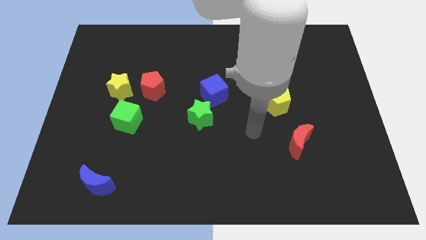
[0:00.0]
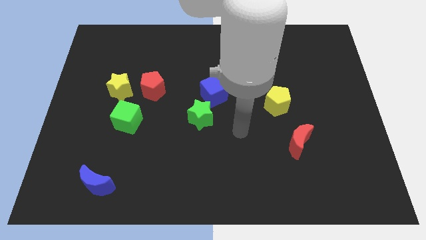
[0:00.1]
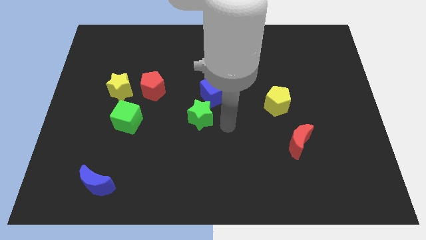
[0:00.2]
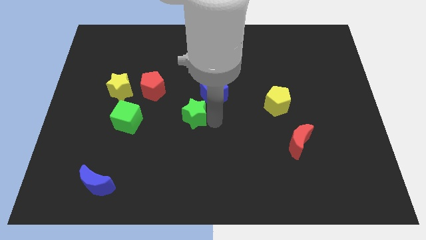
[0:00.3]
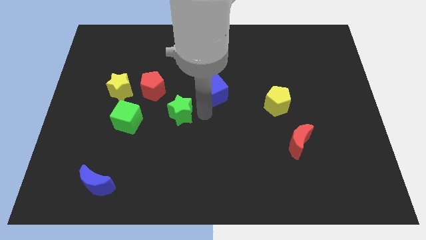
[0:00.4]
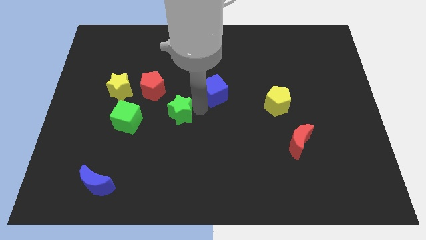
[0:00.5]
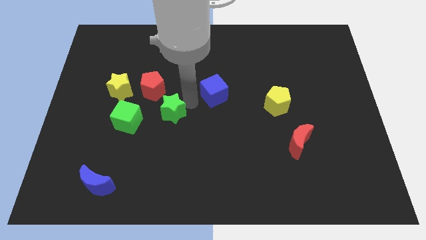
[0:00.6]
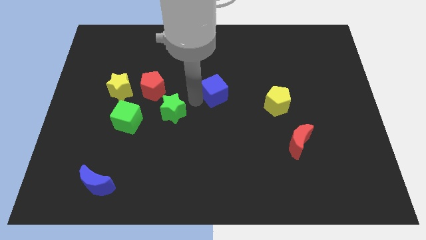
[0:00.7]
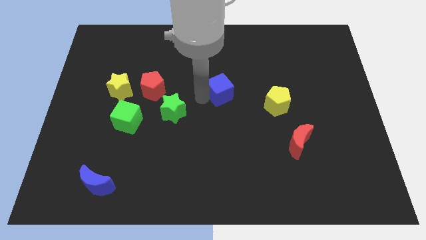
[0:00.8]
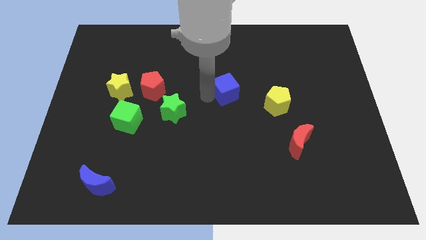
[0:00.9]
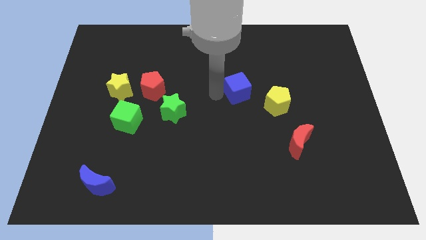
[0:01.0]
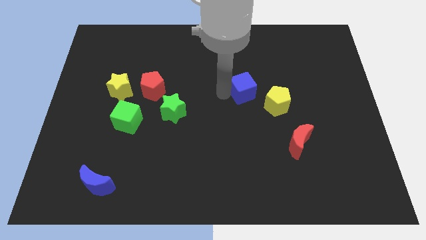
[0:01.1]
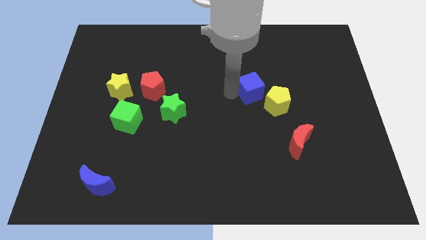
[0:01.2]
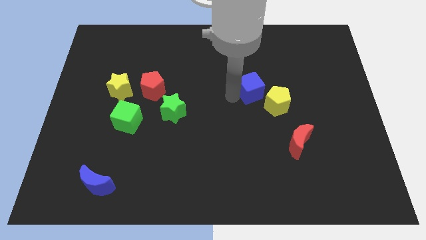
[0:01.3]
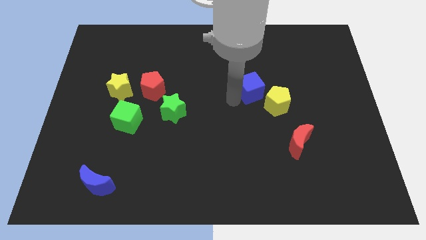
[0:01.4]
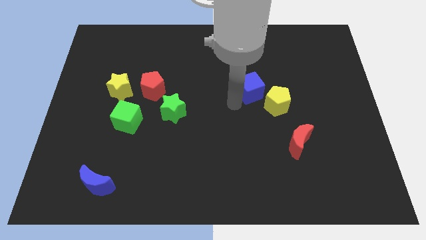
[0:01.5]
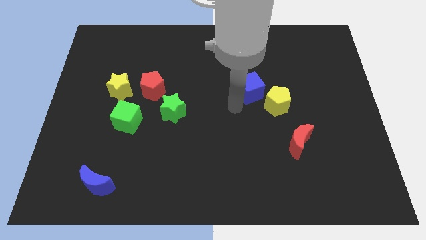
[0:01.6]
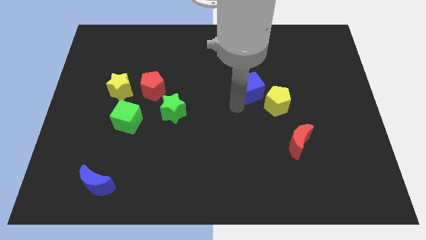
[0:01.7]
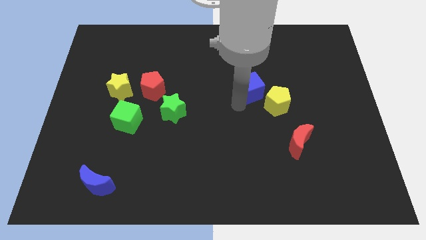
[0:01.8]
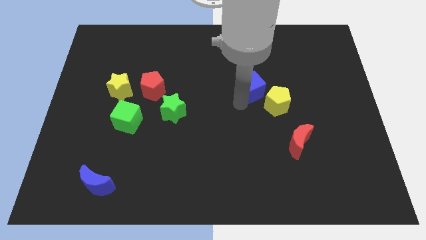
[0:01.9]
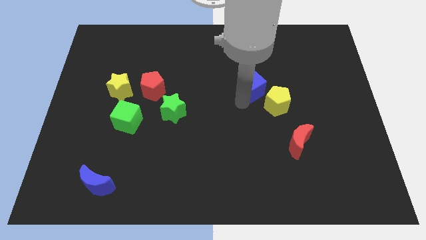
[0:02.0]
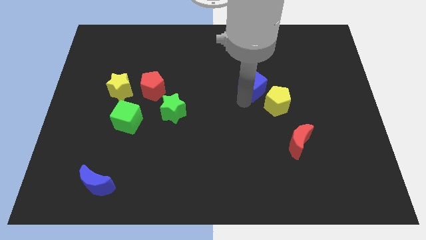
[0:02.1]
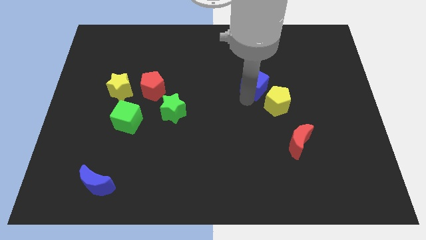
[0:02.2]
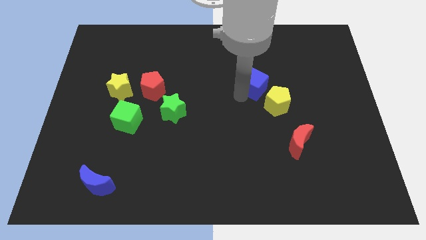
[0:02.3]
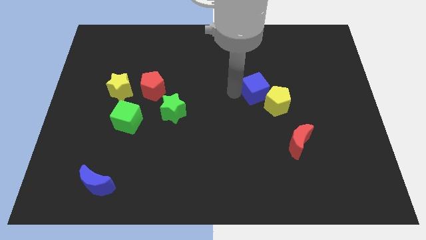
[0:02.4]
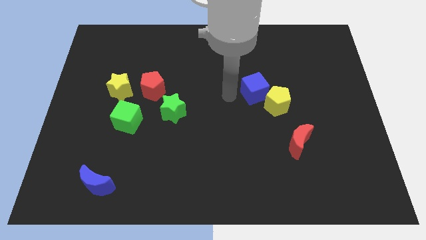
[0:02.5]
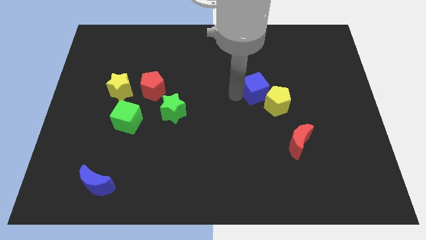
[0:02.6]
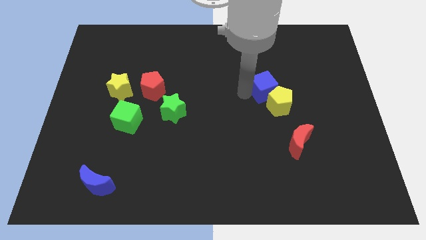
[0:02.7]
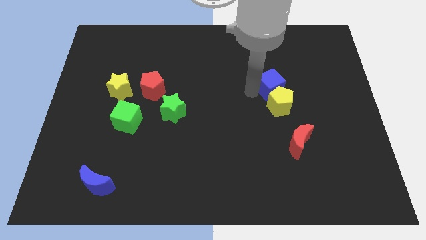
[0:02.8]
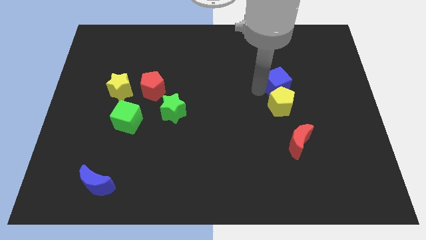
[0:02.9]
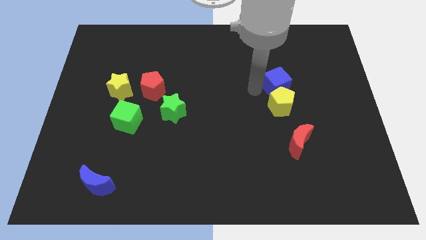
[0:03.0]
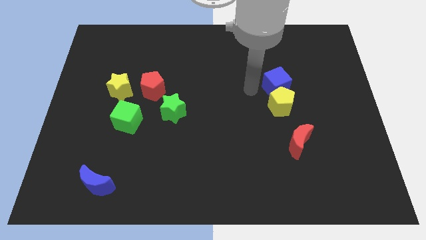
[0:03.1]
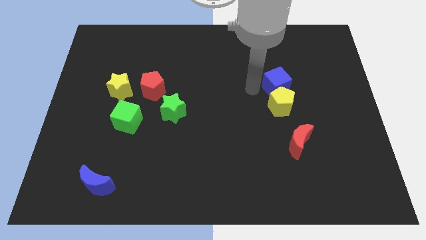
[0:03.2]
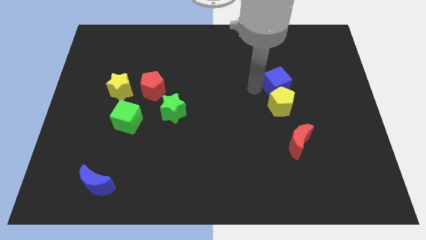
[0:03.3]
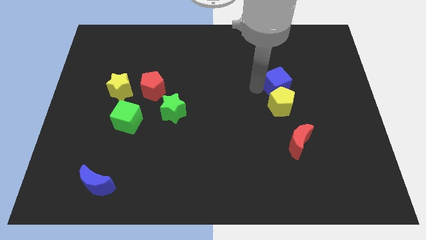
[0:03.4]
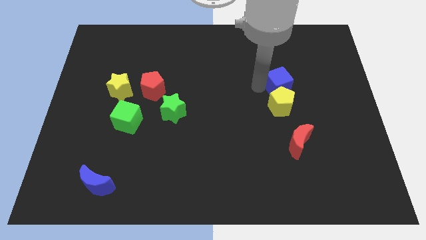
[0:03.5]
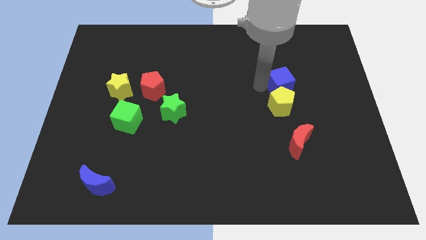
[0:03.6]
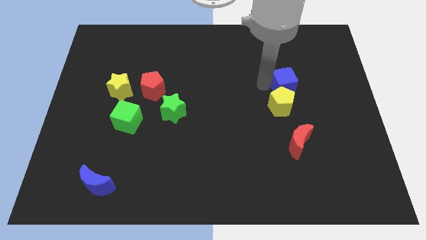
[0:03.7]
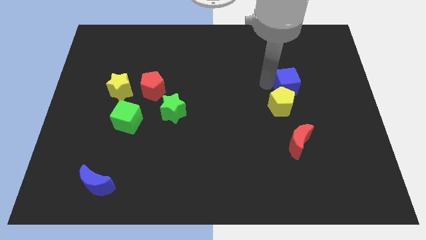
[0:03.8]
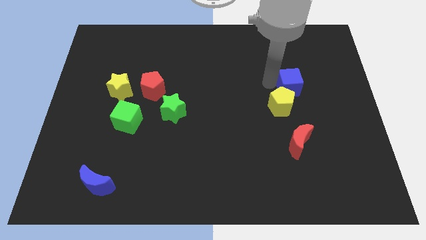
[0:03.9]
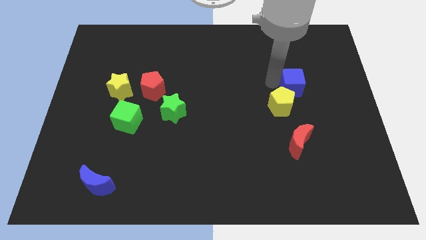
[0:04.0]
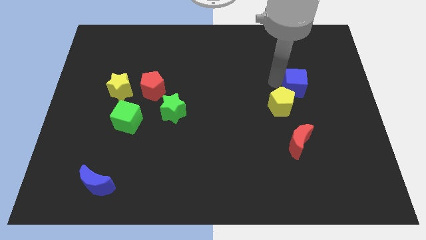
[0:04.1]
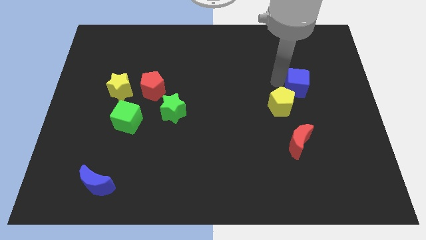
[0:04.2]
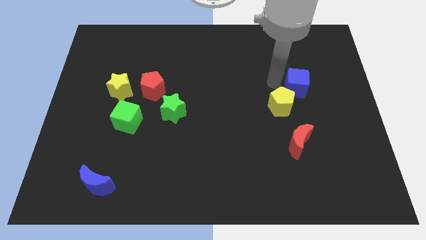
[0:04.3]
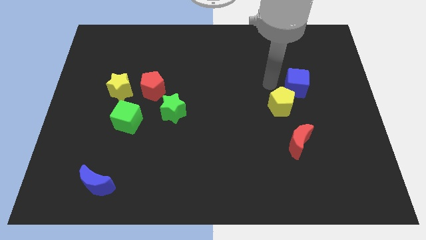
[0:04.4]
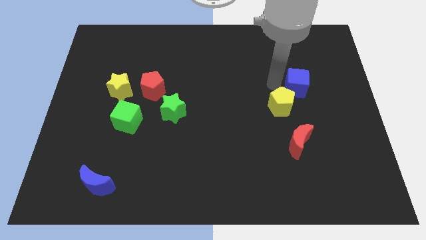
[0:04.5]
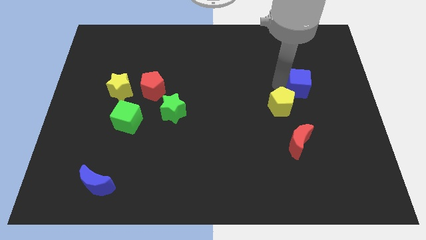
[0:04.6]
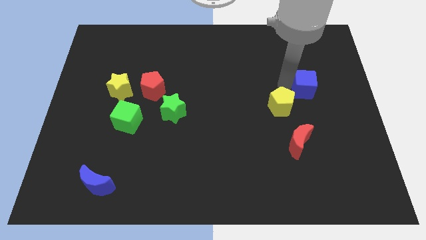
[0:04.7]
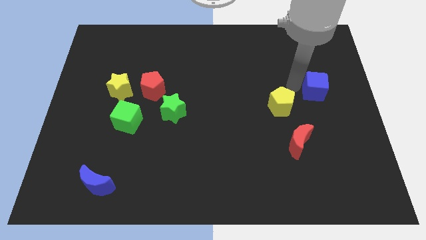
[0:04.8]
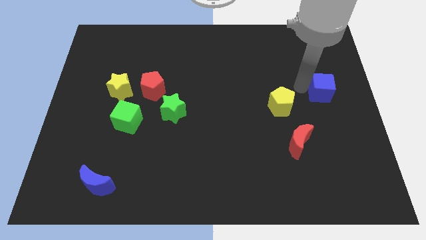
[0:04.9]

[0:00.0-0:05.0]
push the blue cube to the center right
